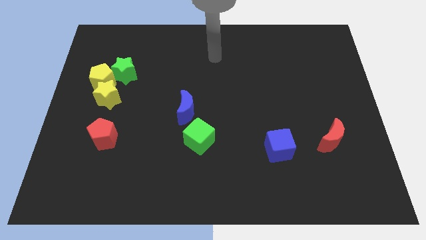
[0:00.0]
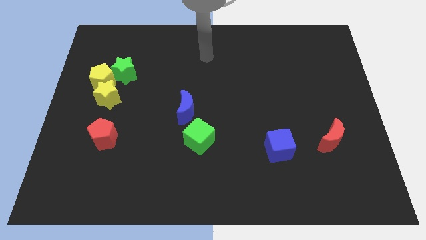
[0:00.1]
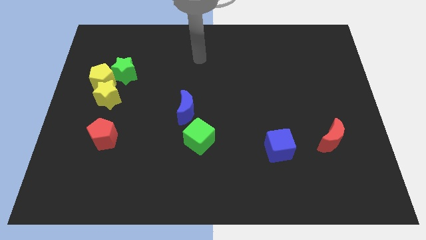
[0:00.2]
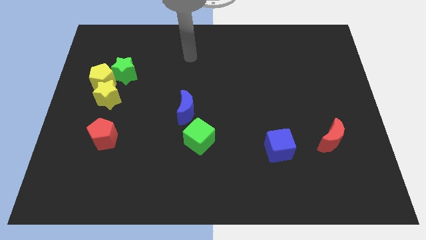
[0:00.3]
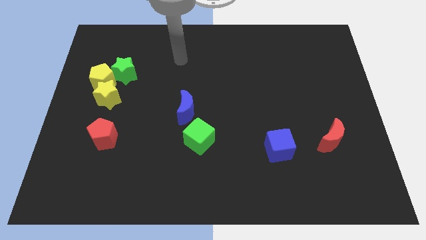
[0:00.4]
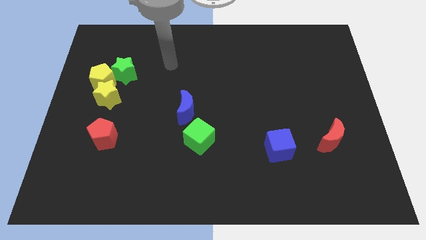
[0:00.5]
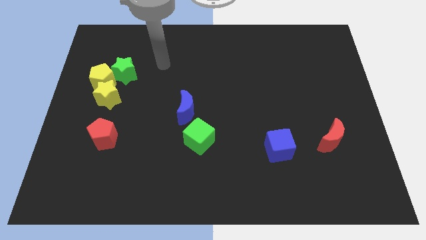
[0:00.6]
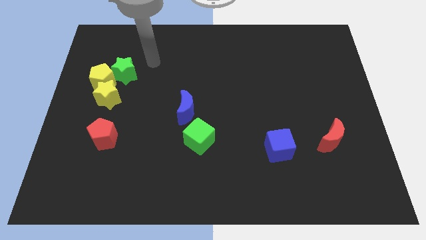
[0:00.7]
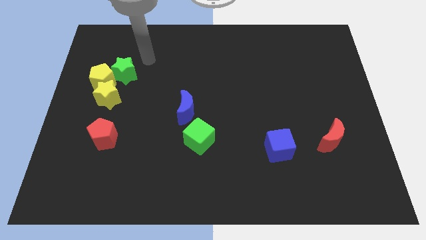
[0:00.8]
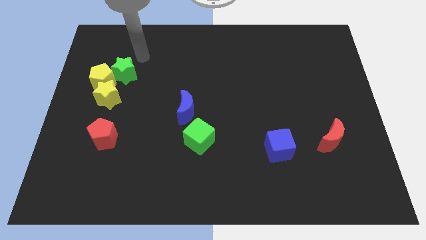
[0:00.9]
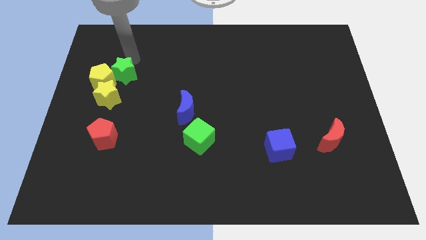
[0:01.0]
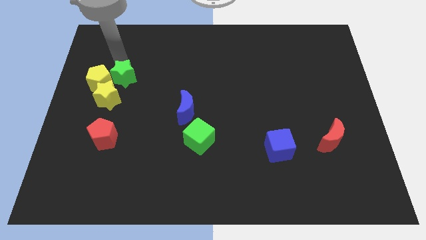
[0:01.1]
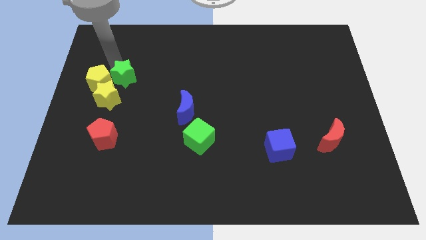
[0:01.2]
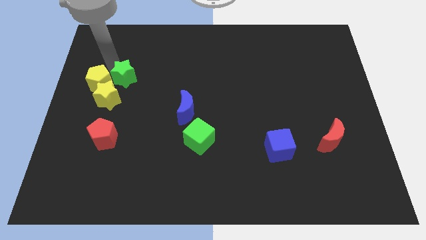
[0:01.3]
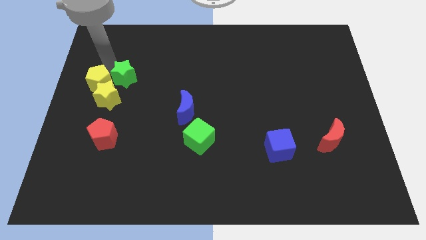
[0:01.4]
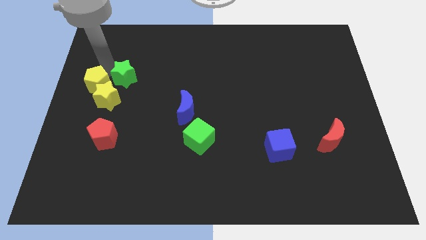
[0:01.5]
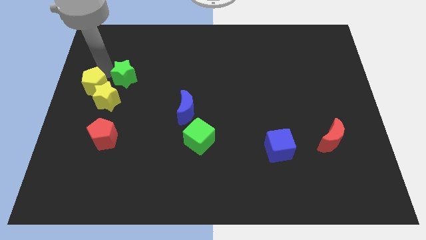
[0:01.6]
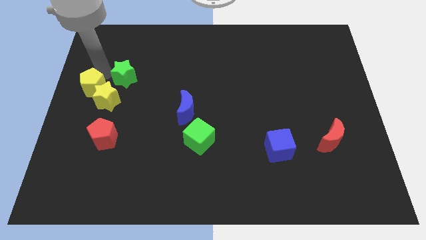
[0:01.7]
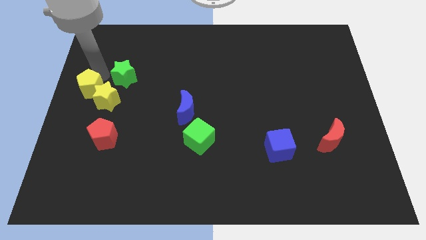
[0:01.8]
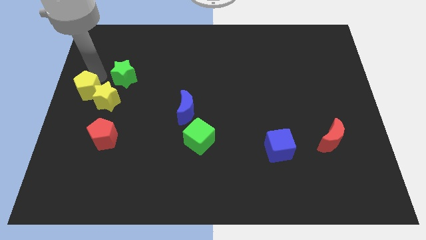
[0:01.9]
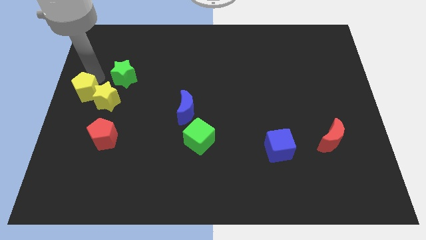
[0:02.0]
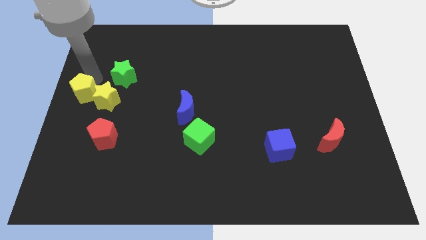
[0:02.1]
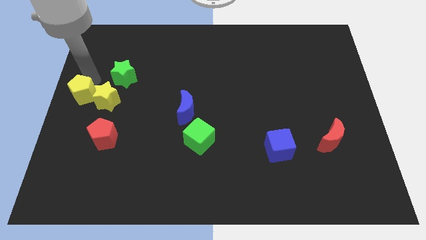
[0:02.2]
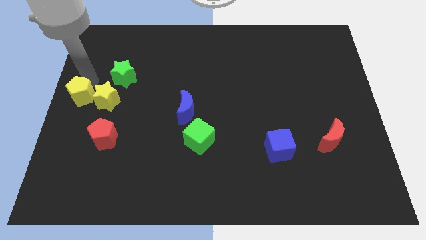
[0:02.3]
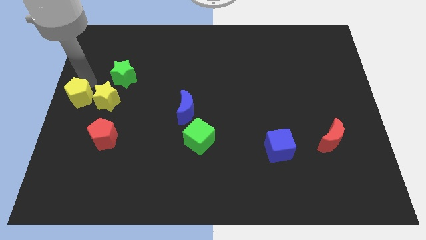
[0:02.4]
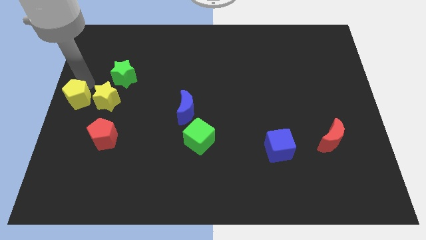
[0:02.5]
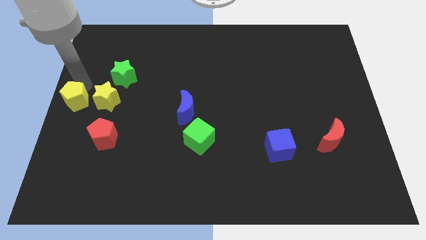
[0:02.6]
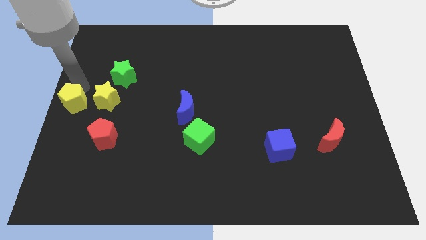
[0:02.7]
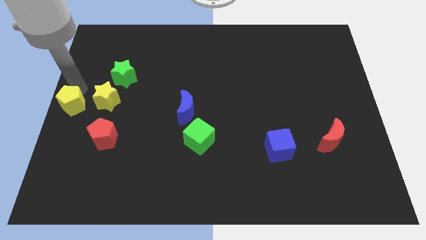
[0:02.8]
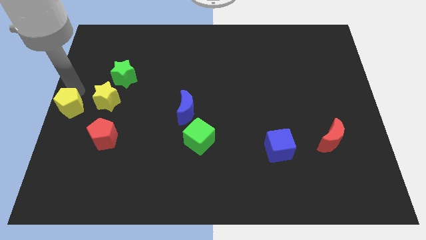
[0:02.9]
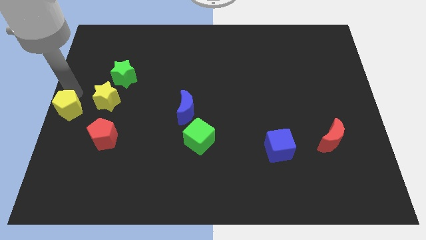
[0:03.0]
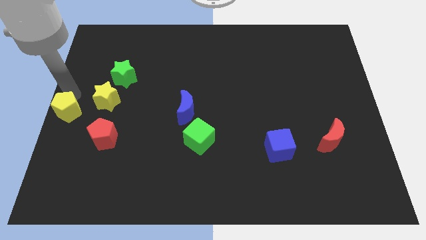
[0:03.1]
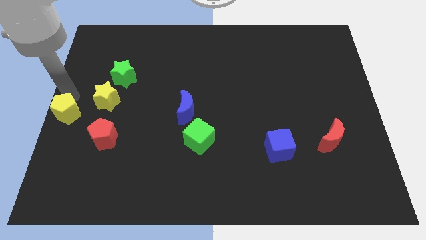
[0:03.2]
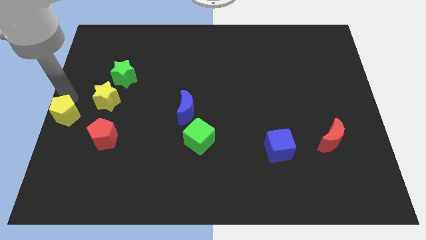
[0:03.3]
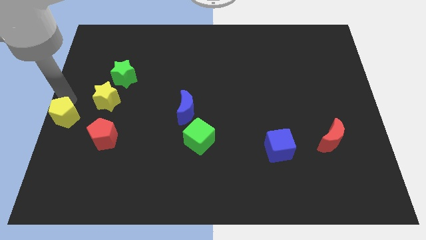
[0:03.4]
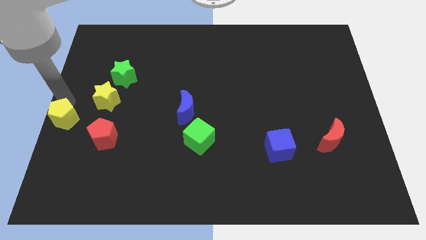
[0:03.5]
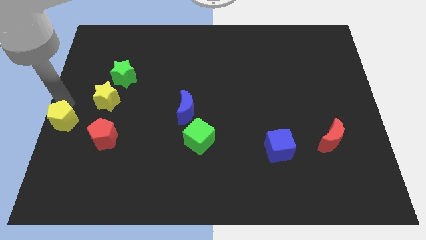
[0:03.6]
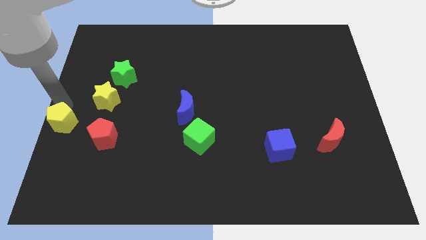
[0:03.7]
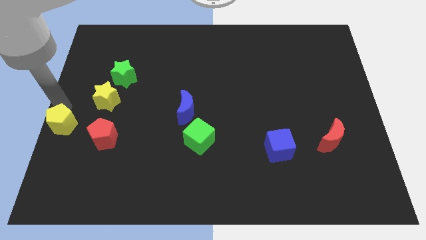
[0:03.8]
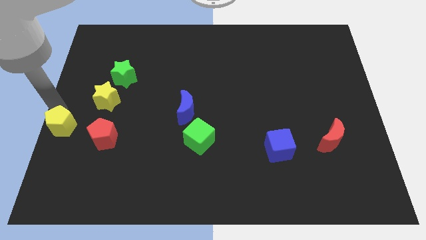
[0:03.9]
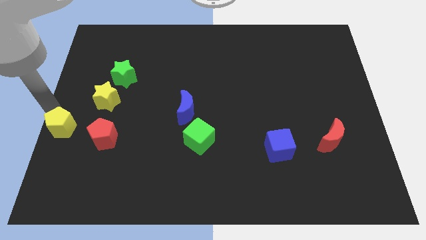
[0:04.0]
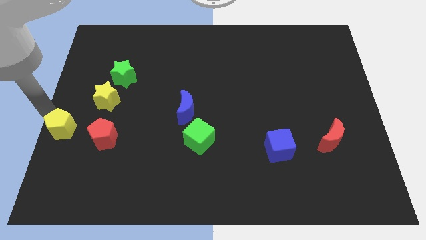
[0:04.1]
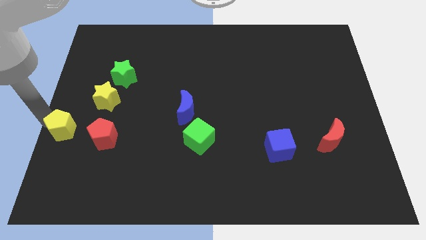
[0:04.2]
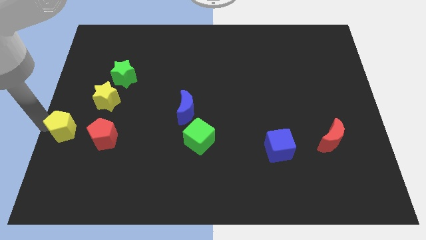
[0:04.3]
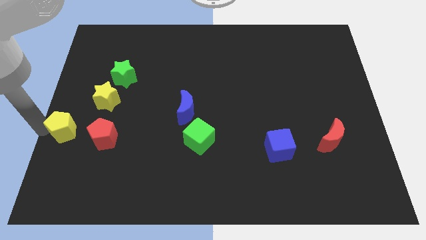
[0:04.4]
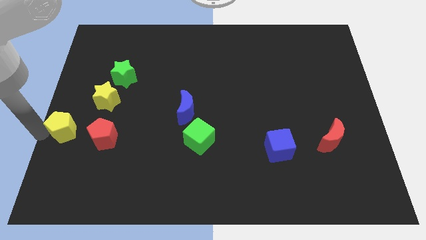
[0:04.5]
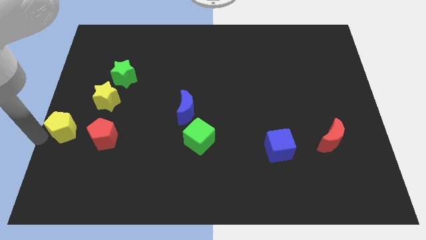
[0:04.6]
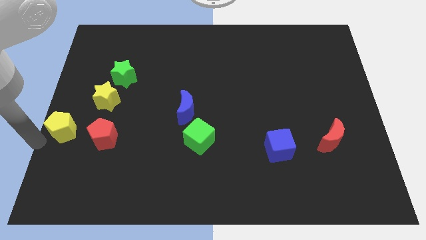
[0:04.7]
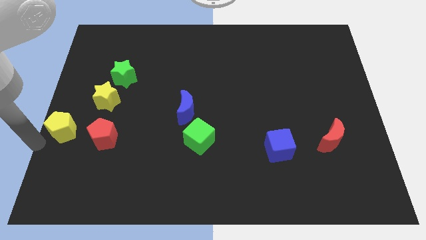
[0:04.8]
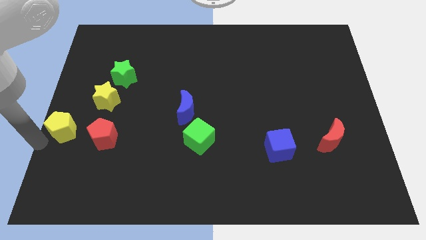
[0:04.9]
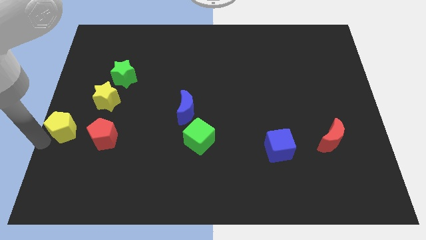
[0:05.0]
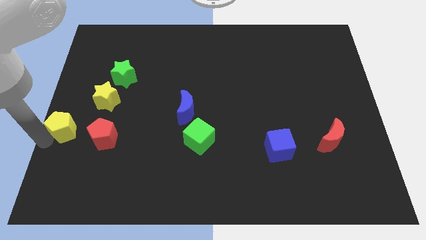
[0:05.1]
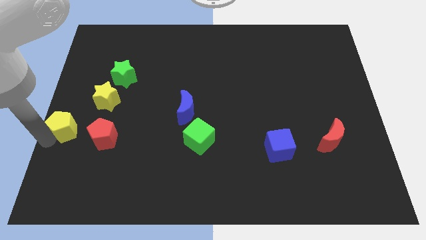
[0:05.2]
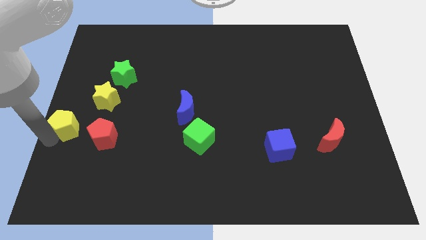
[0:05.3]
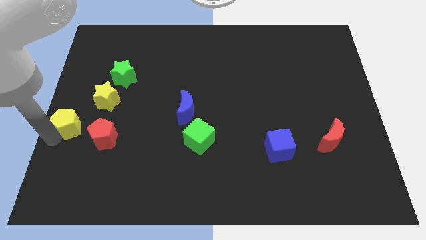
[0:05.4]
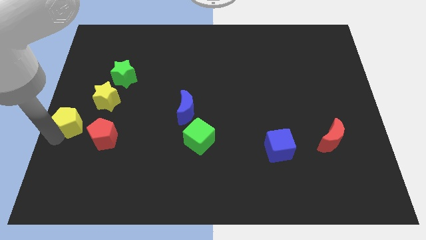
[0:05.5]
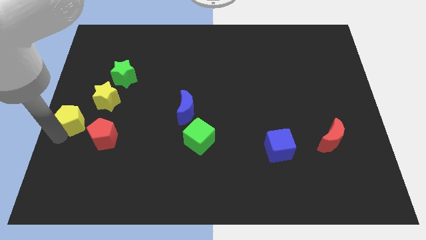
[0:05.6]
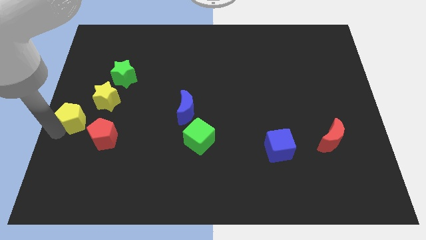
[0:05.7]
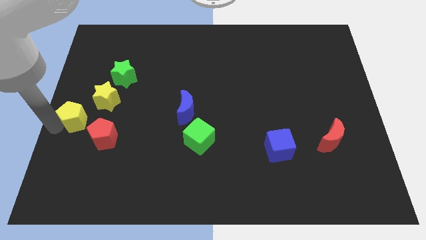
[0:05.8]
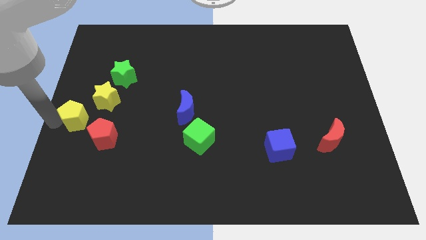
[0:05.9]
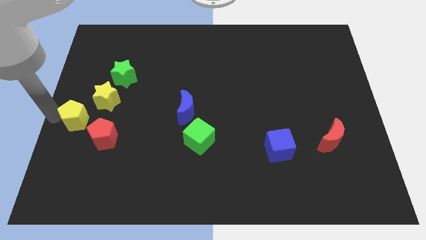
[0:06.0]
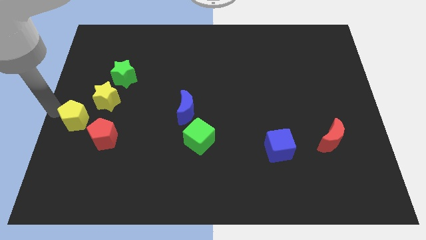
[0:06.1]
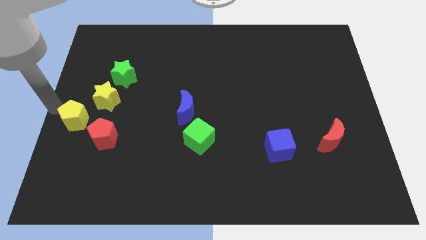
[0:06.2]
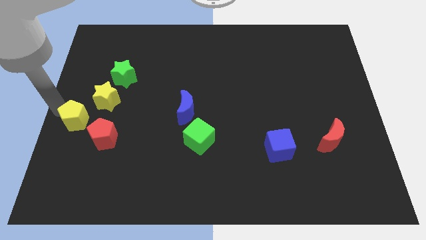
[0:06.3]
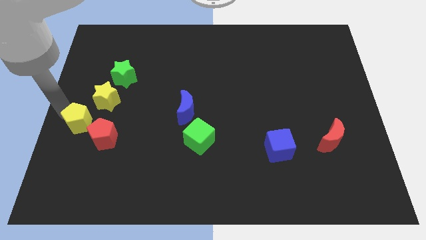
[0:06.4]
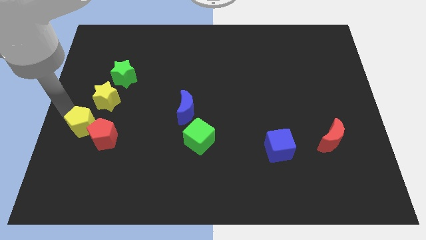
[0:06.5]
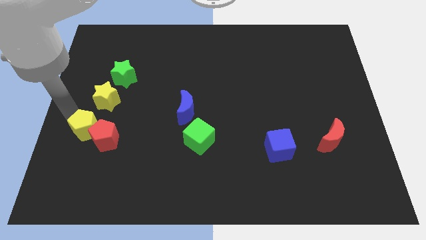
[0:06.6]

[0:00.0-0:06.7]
put the yellow pentagon to the red pentagon
